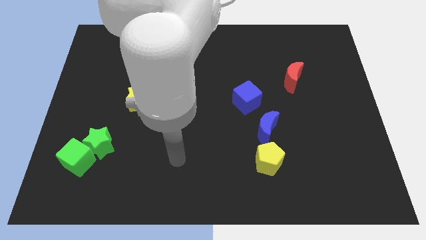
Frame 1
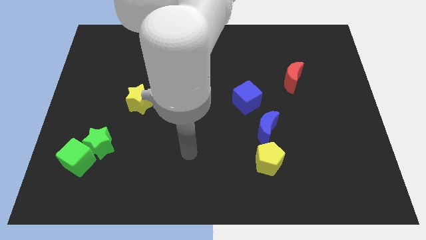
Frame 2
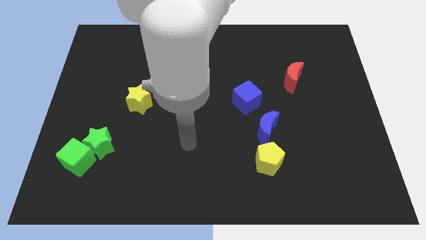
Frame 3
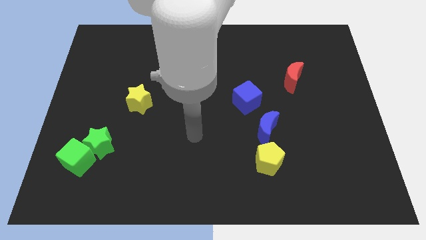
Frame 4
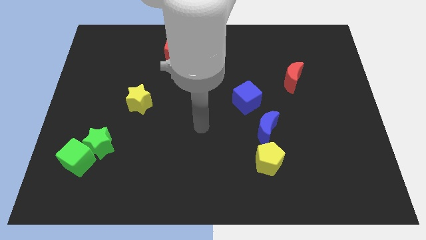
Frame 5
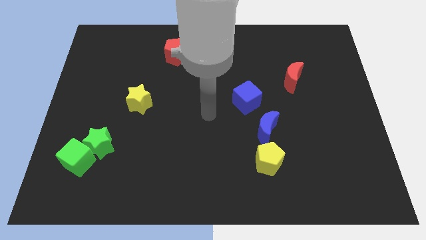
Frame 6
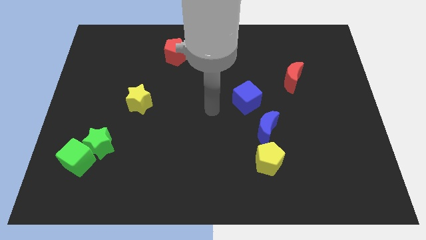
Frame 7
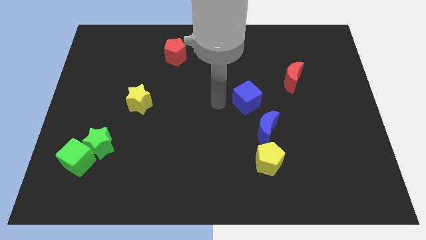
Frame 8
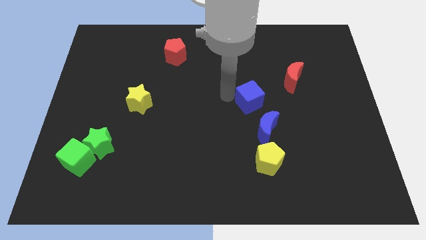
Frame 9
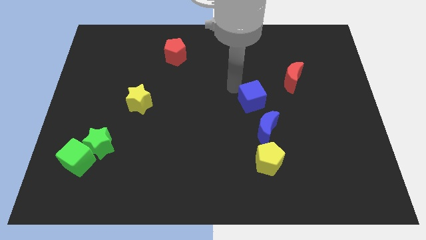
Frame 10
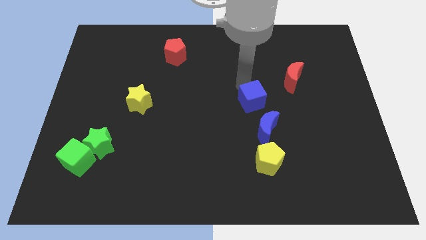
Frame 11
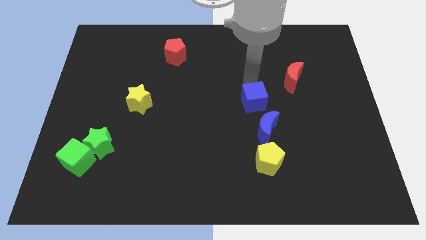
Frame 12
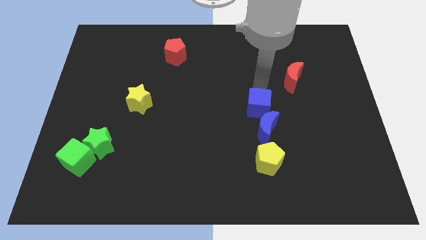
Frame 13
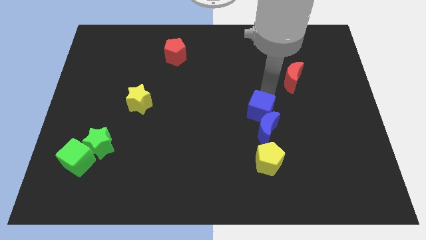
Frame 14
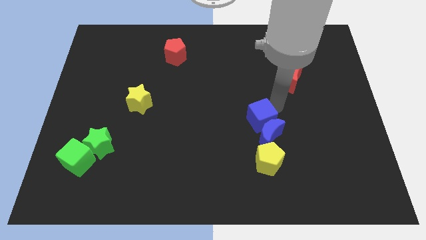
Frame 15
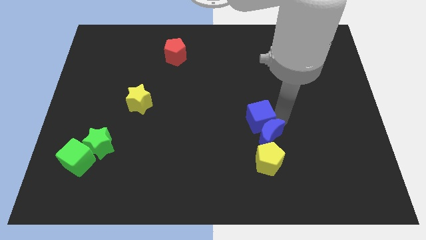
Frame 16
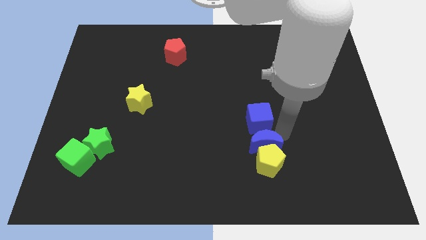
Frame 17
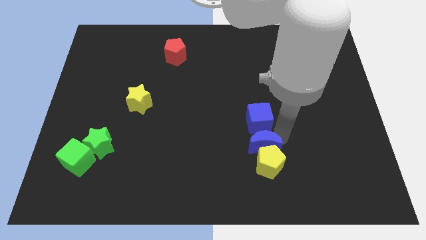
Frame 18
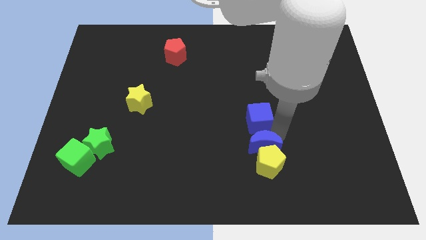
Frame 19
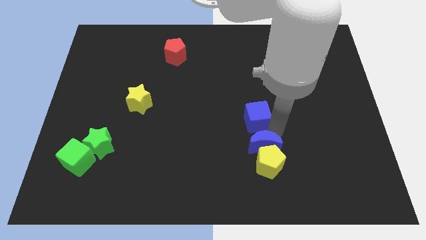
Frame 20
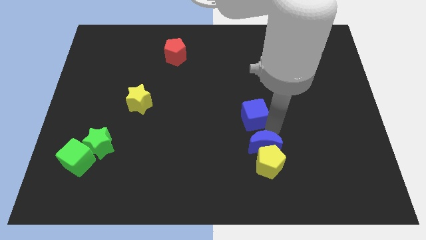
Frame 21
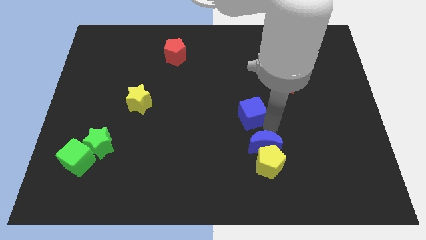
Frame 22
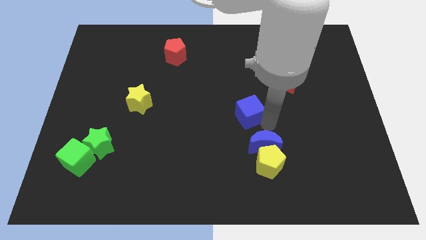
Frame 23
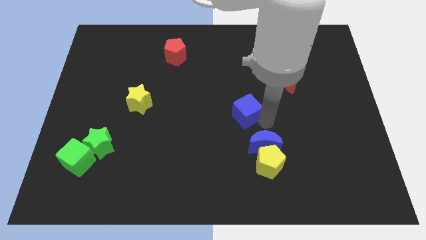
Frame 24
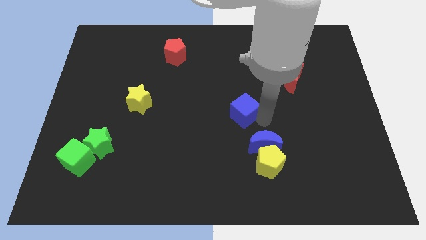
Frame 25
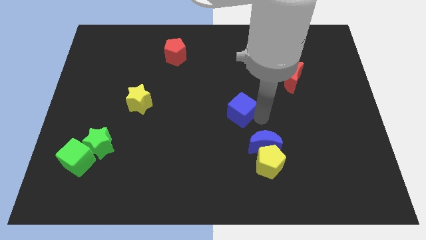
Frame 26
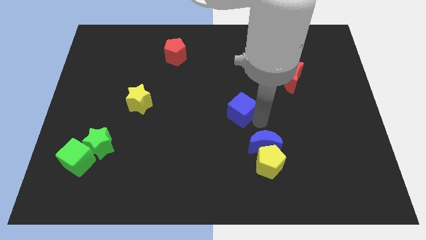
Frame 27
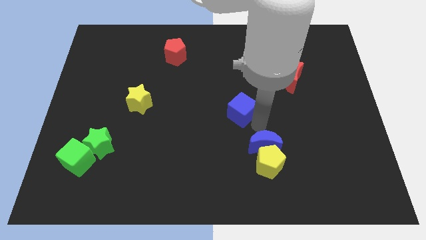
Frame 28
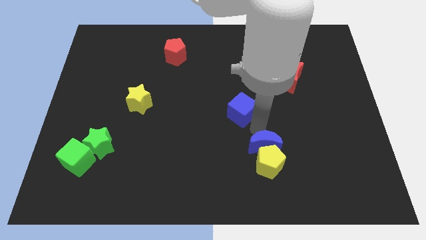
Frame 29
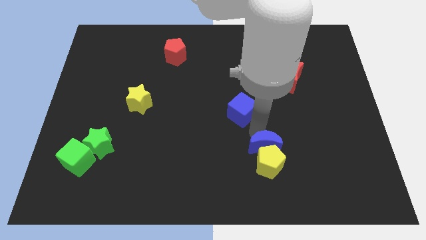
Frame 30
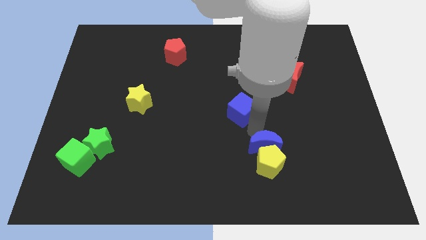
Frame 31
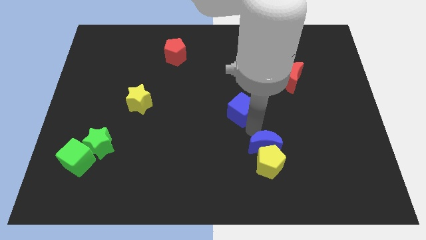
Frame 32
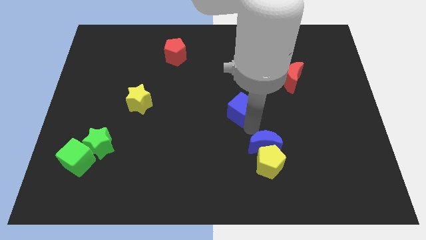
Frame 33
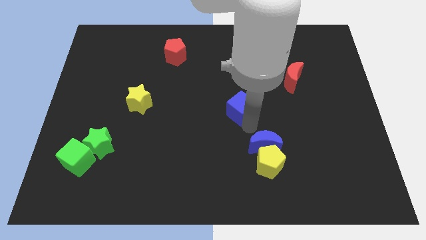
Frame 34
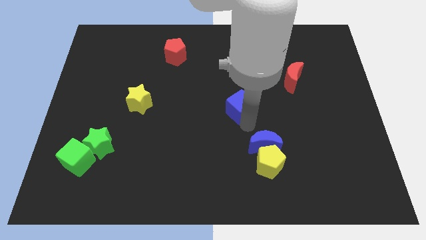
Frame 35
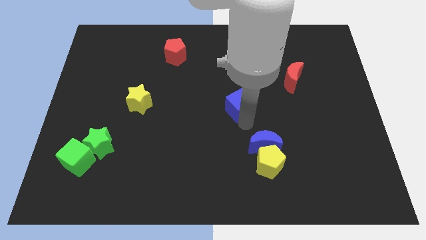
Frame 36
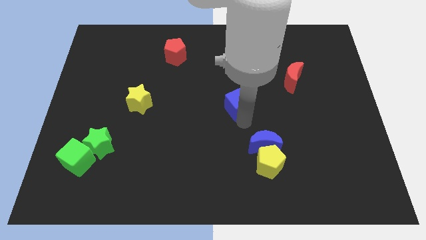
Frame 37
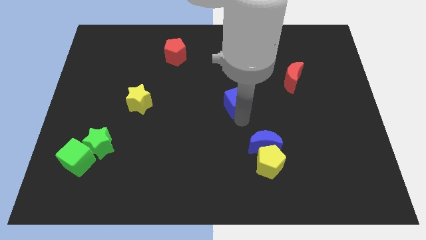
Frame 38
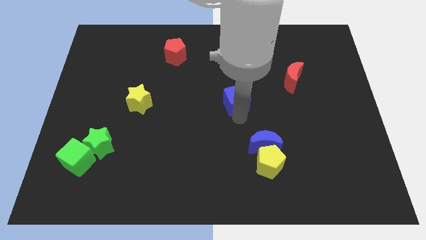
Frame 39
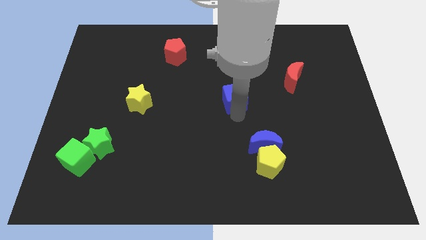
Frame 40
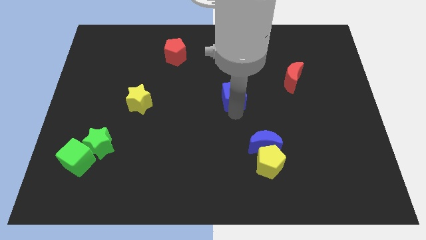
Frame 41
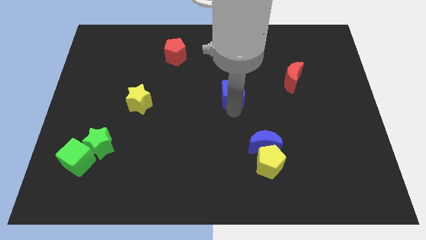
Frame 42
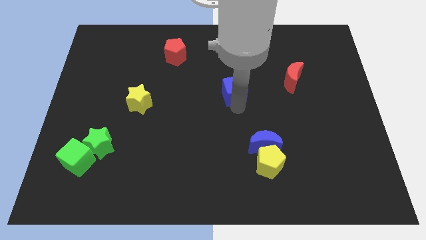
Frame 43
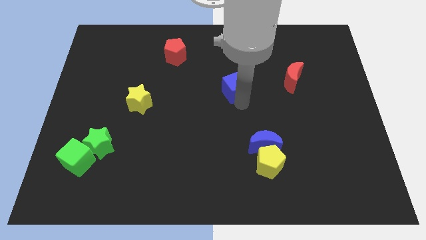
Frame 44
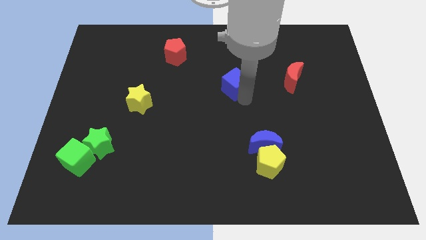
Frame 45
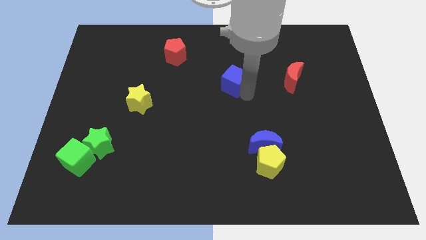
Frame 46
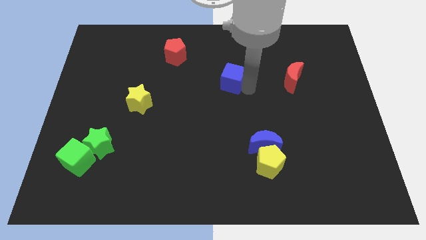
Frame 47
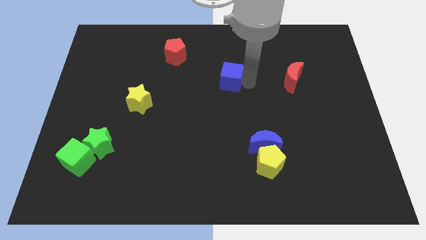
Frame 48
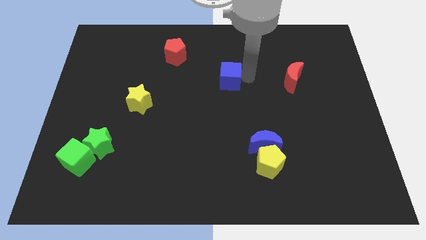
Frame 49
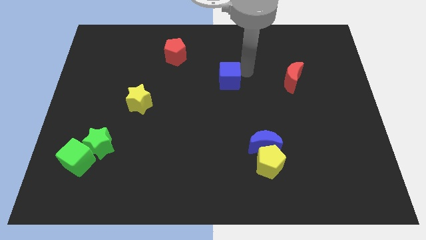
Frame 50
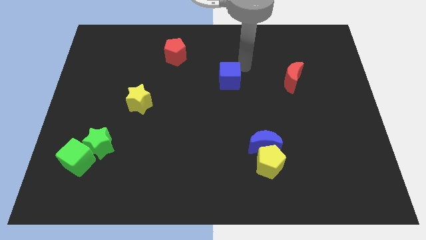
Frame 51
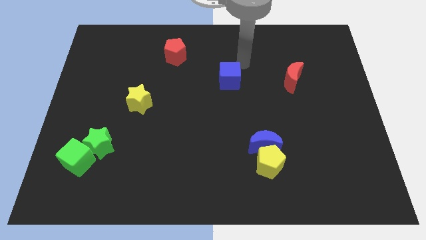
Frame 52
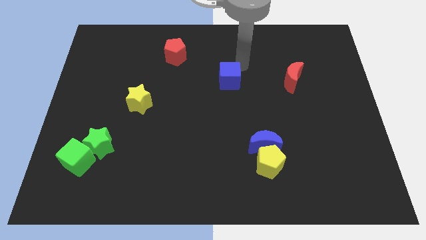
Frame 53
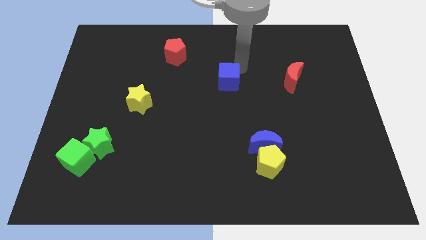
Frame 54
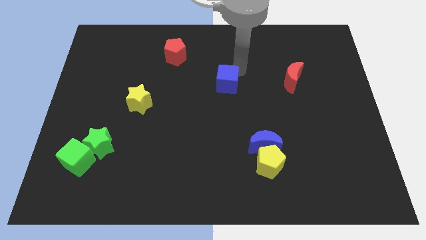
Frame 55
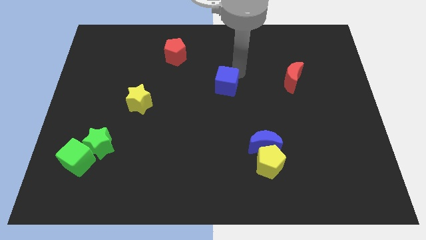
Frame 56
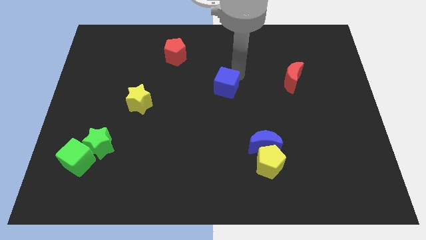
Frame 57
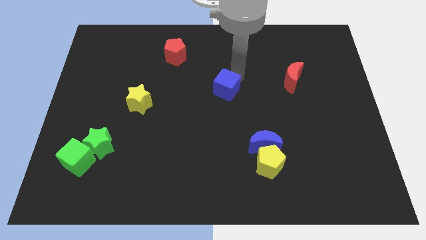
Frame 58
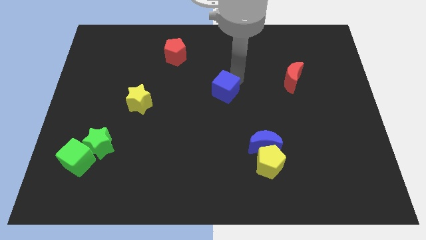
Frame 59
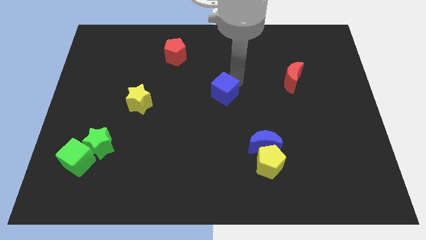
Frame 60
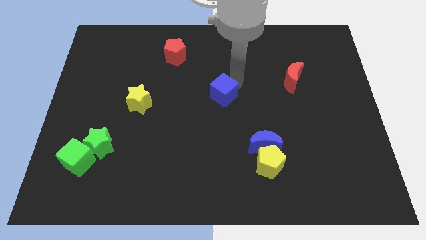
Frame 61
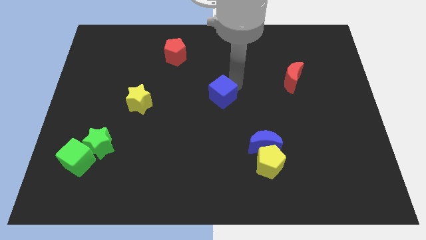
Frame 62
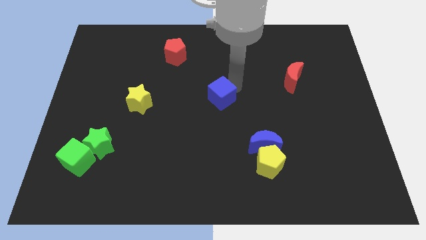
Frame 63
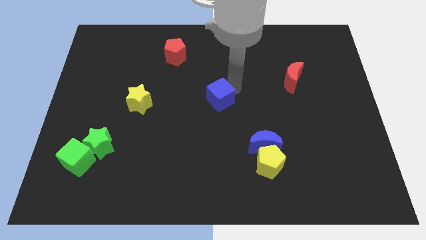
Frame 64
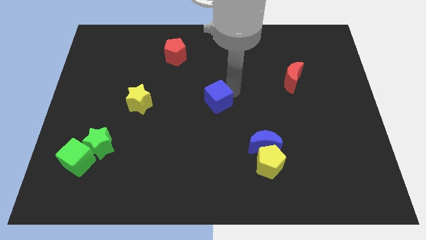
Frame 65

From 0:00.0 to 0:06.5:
slide the blue cube left slightly

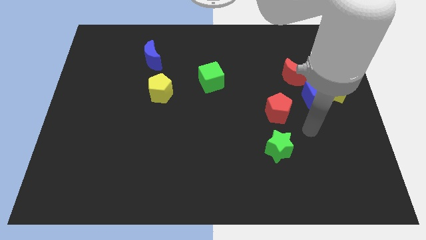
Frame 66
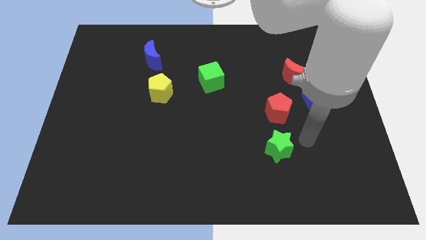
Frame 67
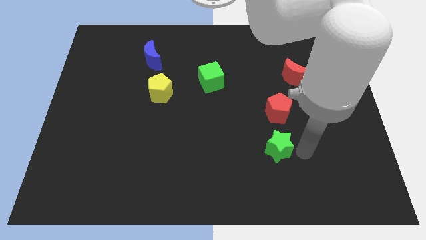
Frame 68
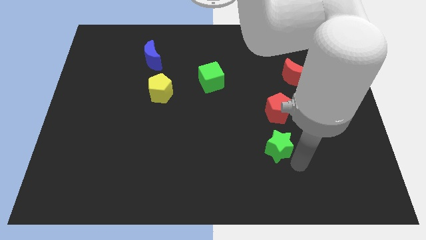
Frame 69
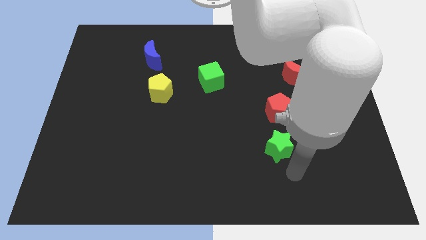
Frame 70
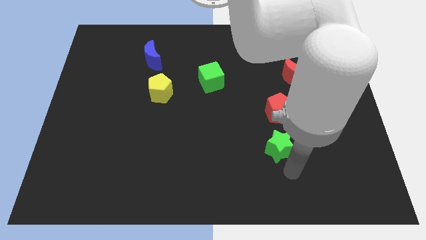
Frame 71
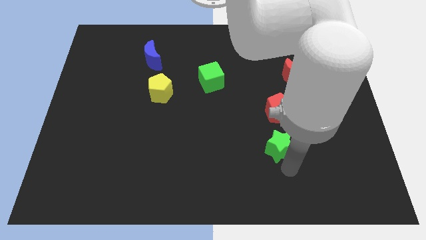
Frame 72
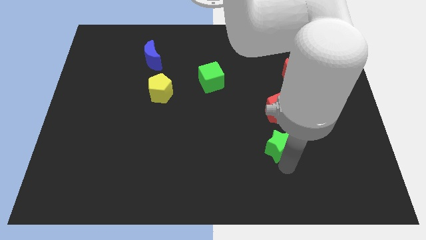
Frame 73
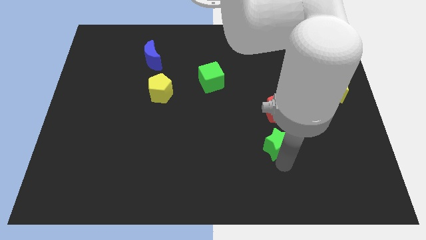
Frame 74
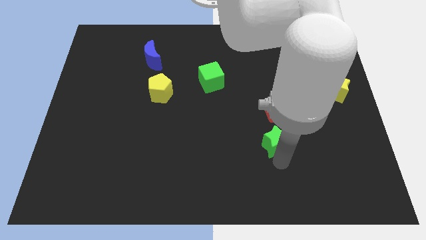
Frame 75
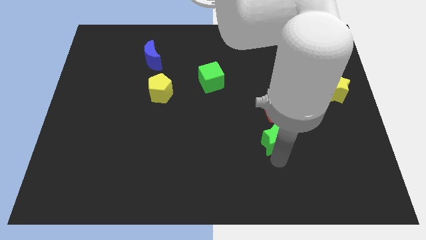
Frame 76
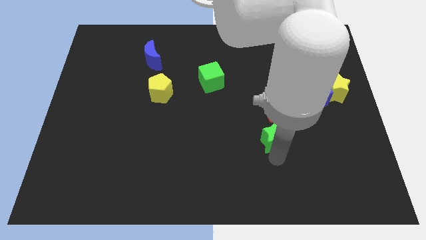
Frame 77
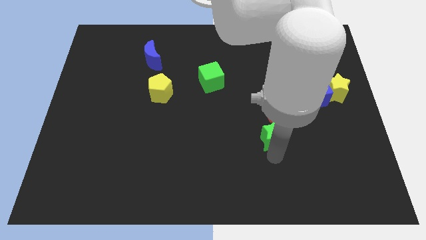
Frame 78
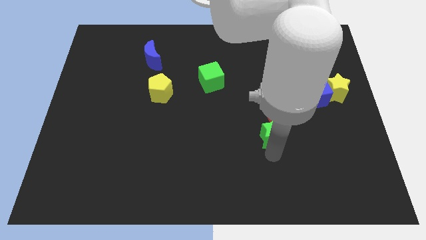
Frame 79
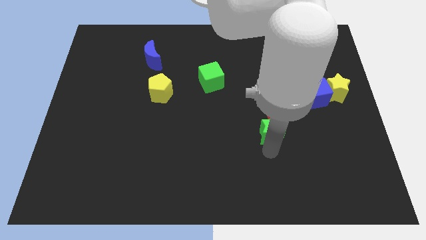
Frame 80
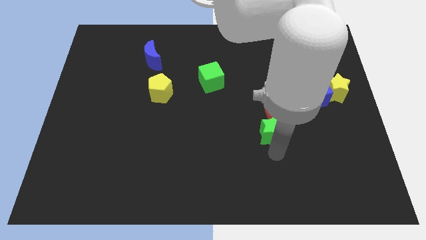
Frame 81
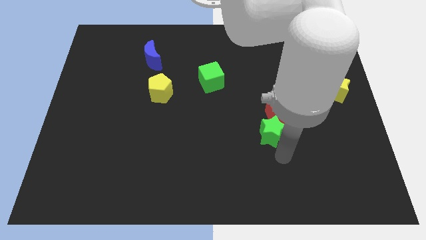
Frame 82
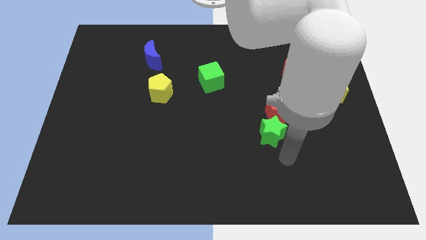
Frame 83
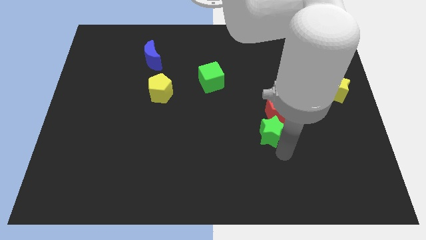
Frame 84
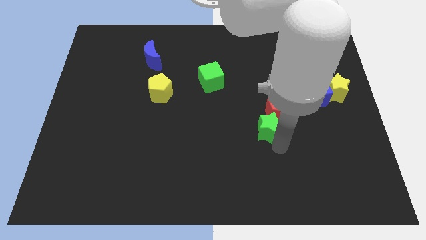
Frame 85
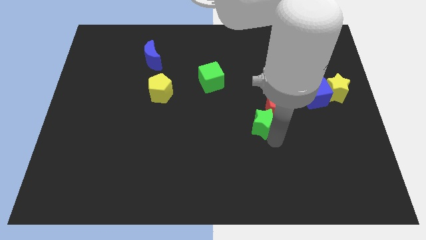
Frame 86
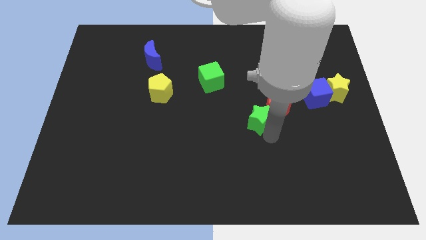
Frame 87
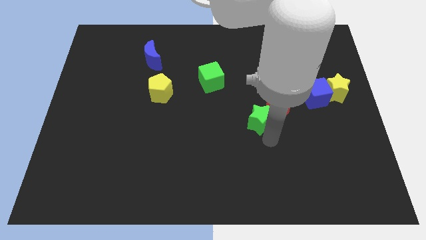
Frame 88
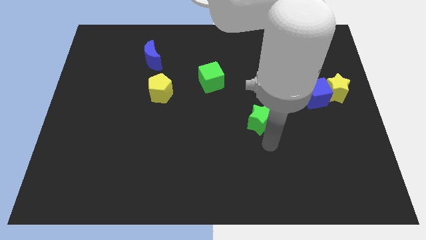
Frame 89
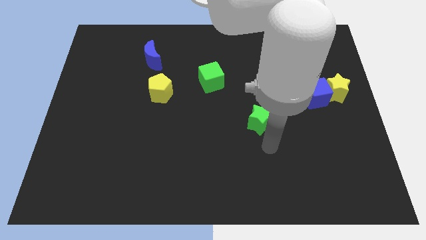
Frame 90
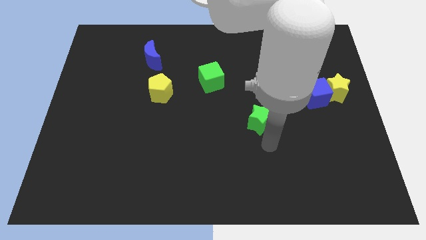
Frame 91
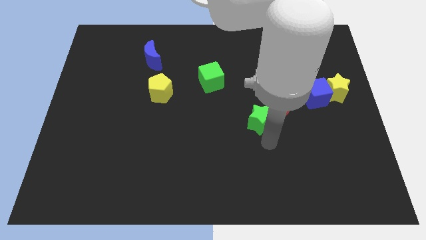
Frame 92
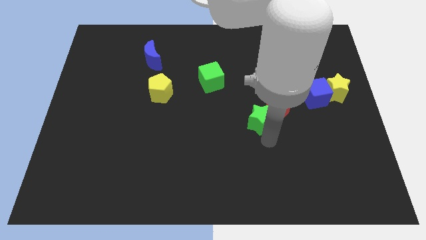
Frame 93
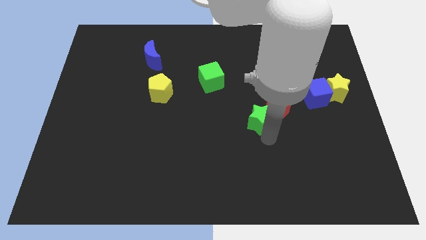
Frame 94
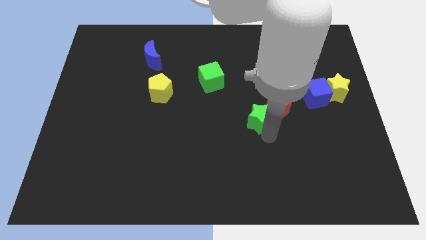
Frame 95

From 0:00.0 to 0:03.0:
slightly slide the green star upwards
